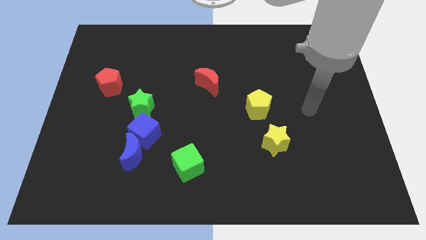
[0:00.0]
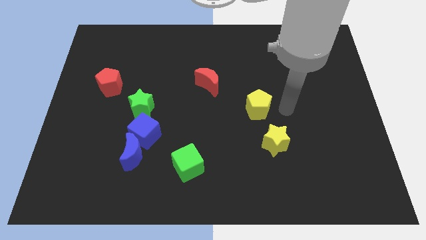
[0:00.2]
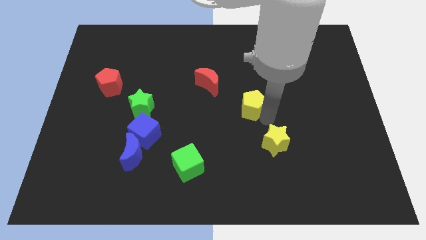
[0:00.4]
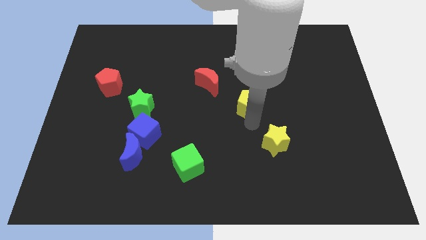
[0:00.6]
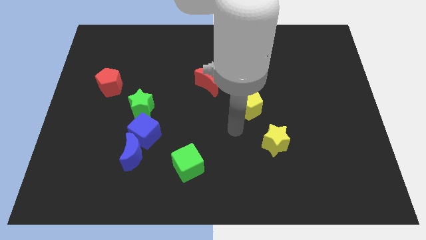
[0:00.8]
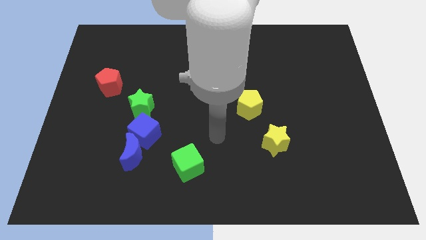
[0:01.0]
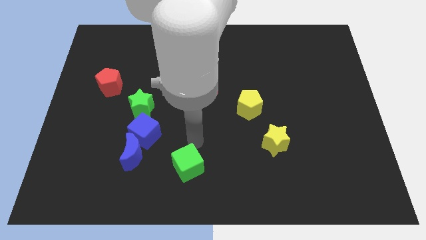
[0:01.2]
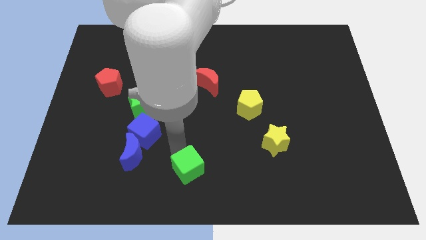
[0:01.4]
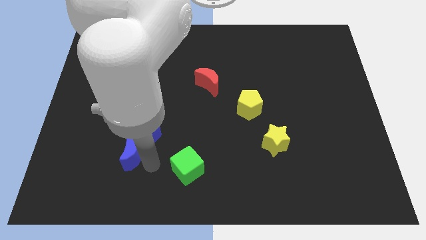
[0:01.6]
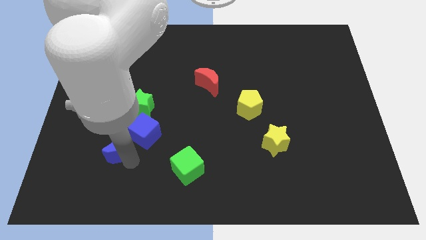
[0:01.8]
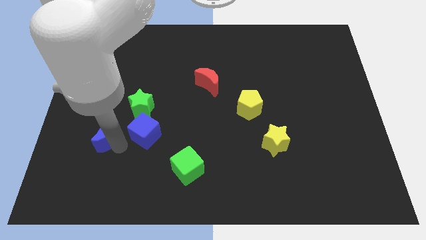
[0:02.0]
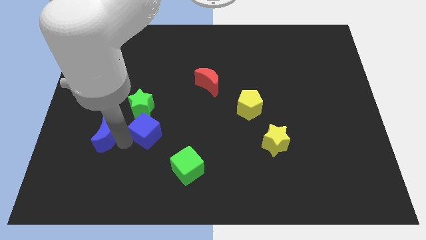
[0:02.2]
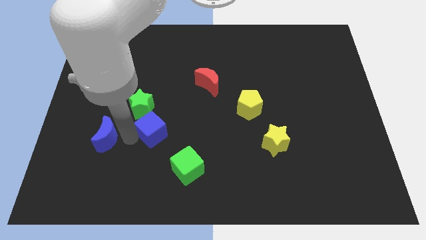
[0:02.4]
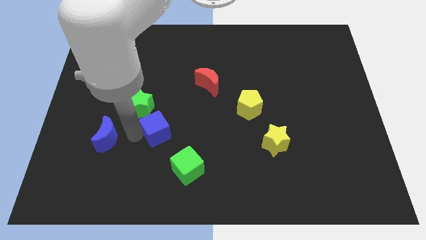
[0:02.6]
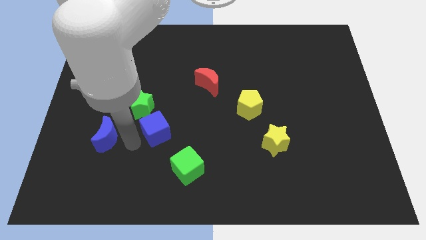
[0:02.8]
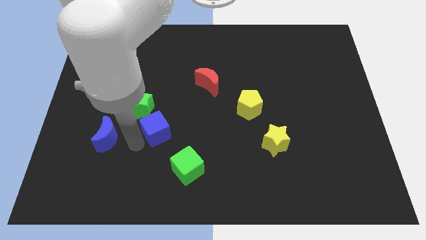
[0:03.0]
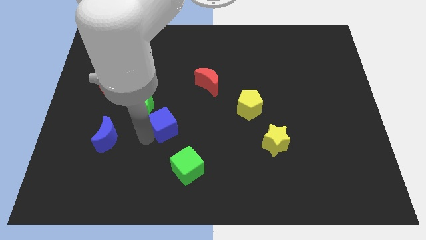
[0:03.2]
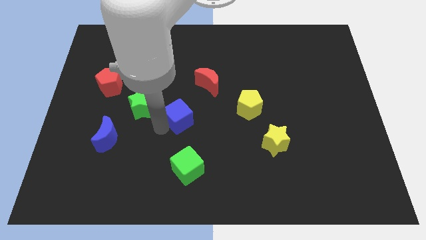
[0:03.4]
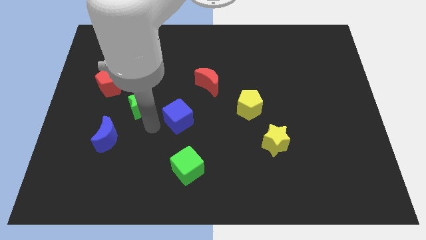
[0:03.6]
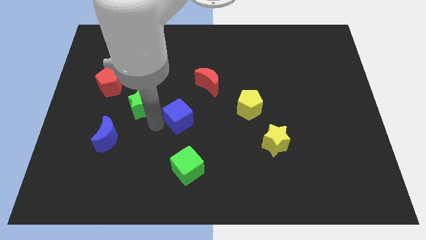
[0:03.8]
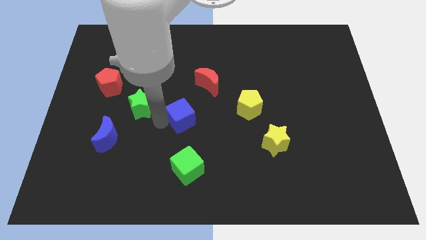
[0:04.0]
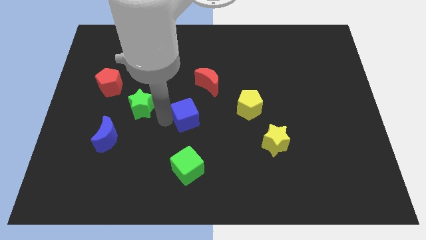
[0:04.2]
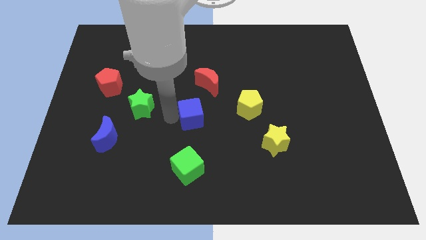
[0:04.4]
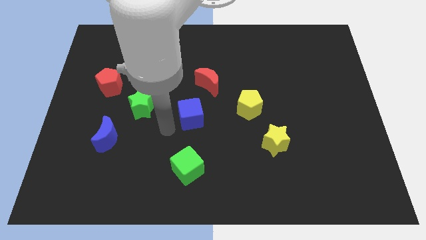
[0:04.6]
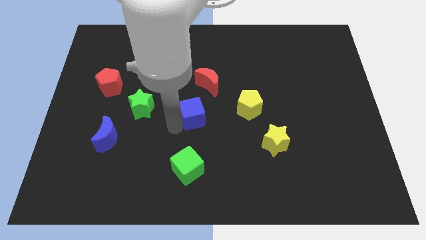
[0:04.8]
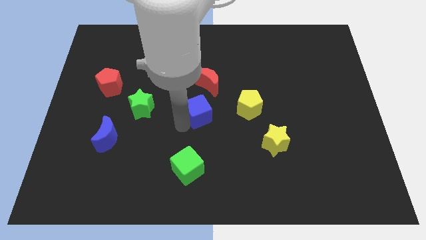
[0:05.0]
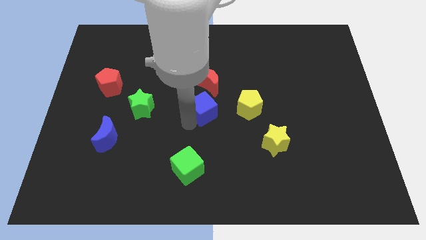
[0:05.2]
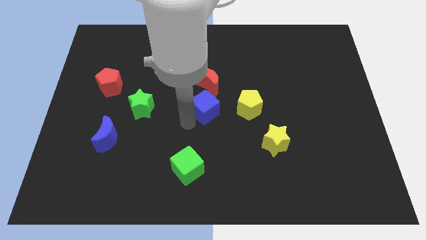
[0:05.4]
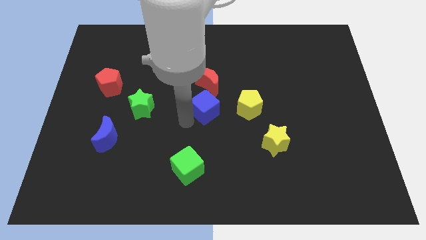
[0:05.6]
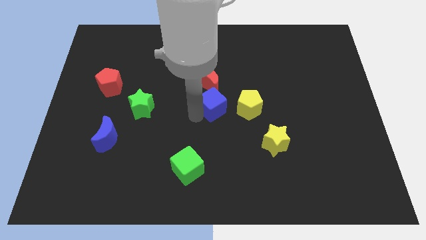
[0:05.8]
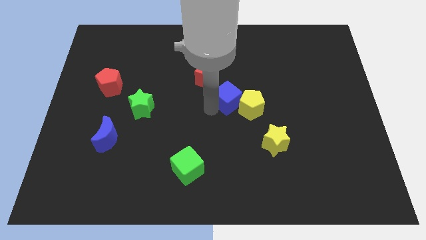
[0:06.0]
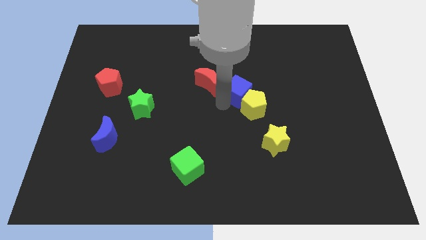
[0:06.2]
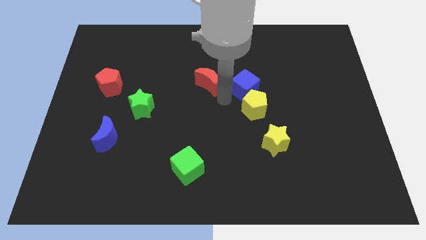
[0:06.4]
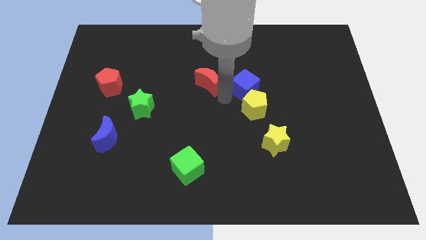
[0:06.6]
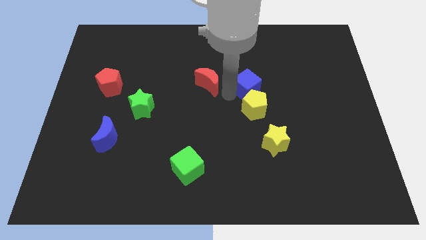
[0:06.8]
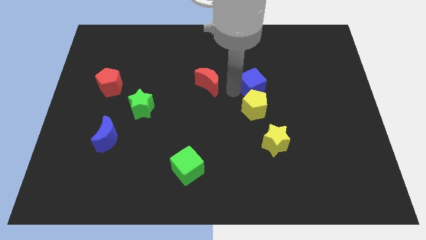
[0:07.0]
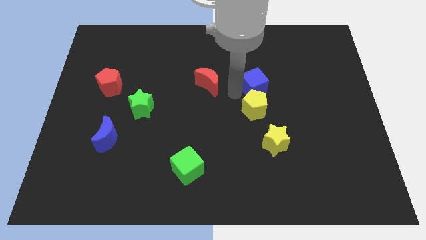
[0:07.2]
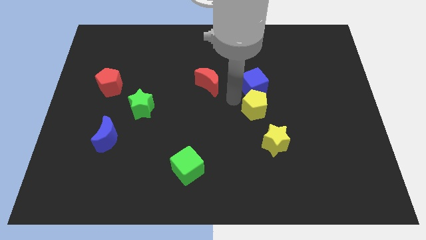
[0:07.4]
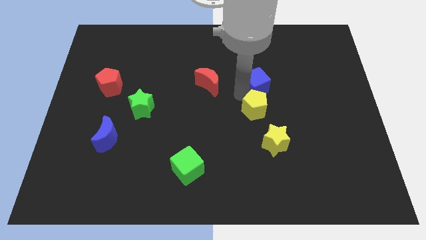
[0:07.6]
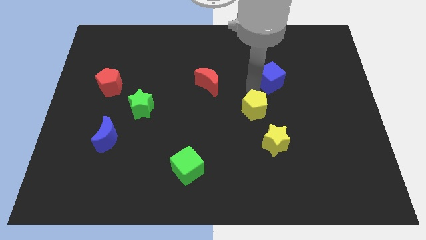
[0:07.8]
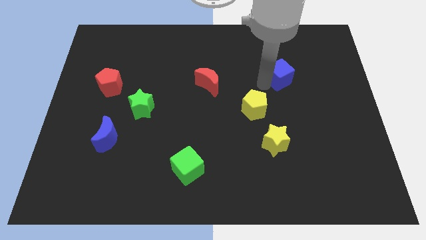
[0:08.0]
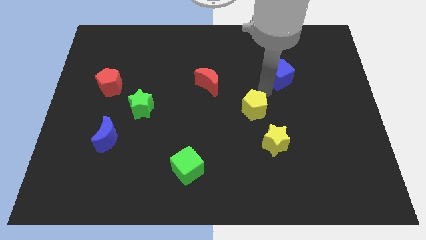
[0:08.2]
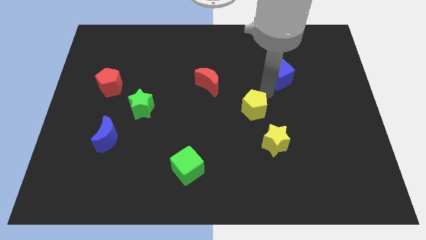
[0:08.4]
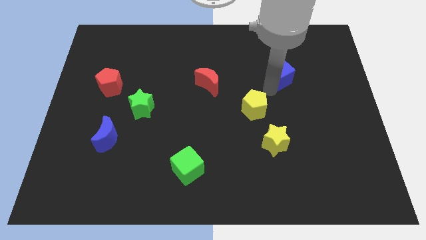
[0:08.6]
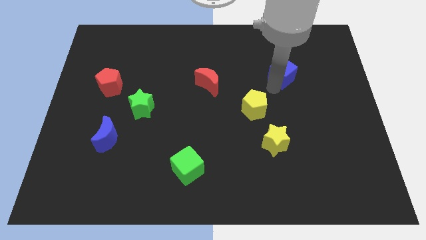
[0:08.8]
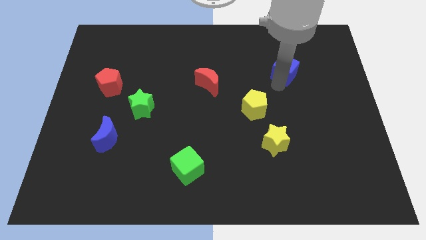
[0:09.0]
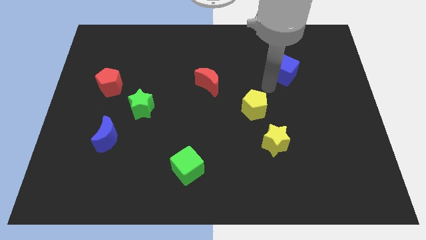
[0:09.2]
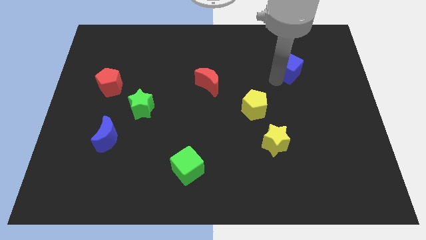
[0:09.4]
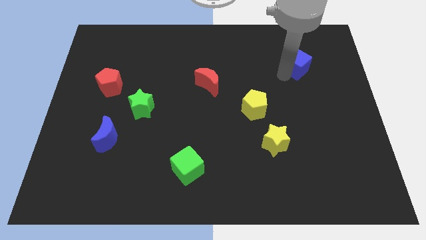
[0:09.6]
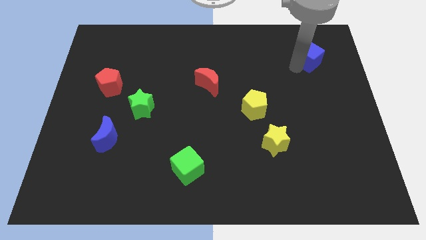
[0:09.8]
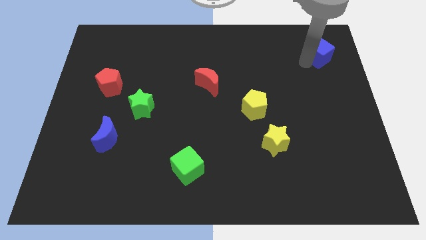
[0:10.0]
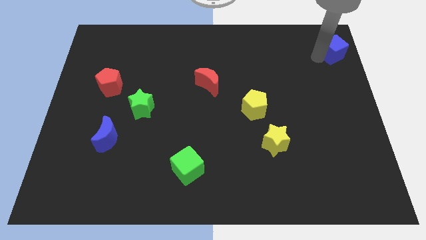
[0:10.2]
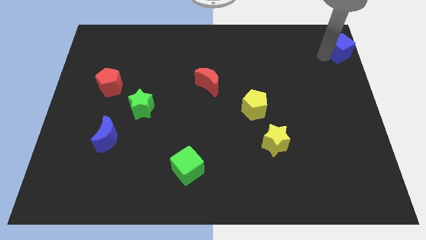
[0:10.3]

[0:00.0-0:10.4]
slide the blue cube to the top right of the board

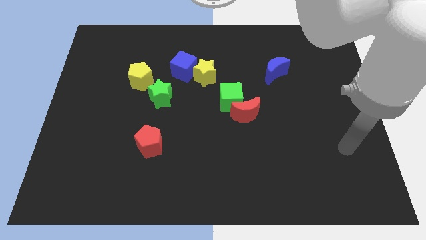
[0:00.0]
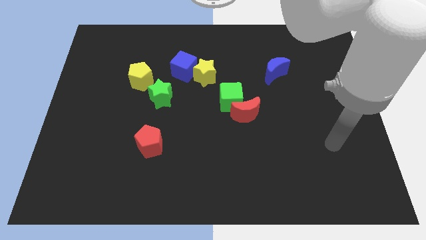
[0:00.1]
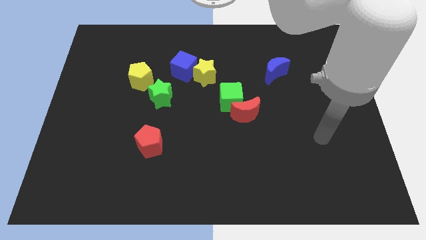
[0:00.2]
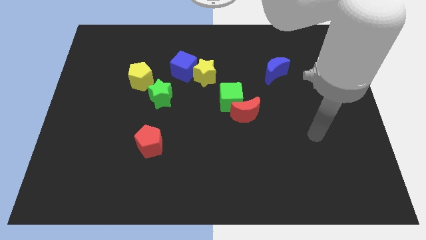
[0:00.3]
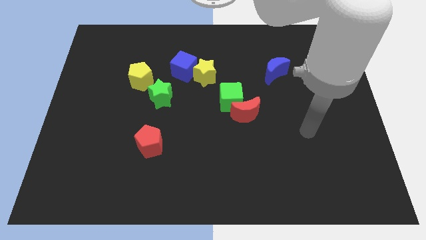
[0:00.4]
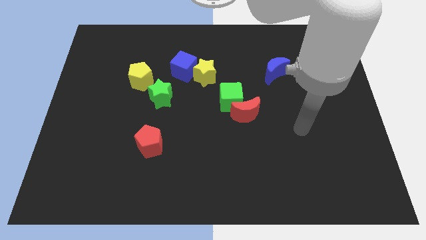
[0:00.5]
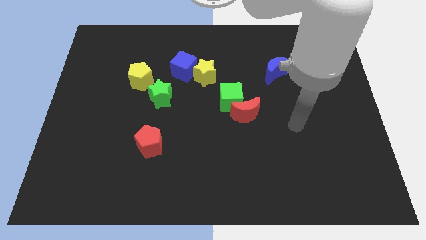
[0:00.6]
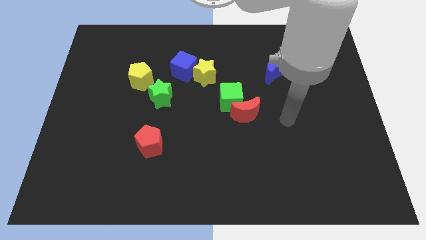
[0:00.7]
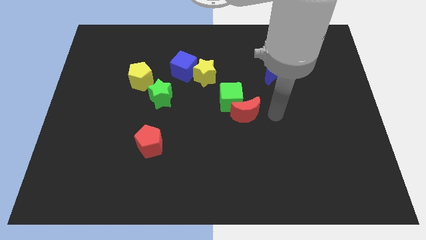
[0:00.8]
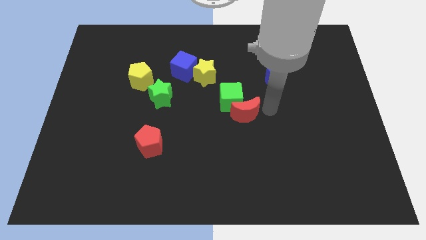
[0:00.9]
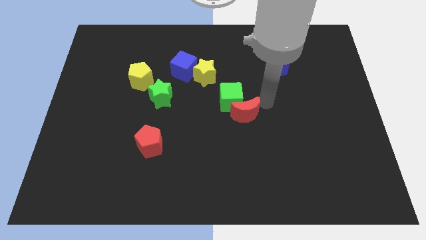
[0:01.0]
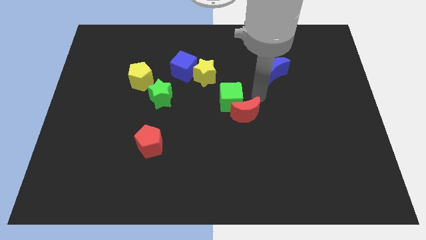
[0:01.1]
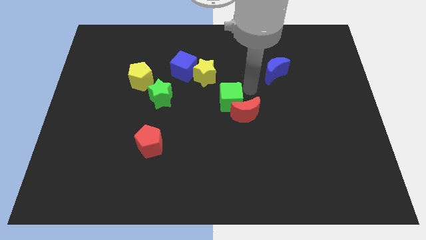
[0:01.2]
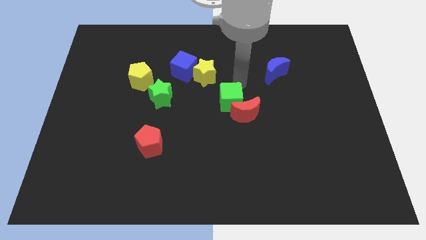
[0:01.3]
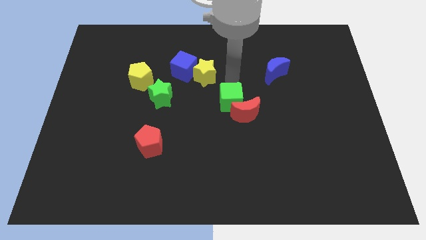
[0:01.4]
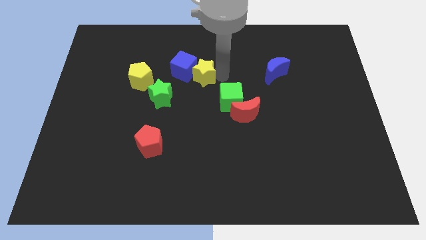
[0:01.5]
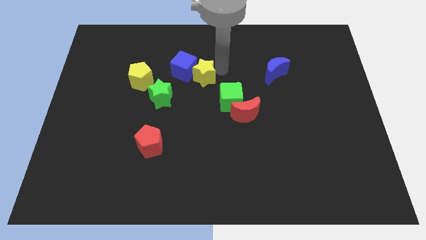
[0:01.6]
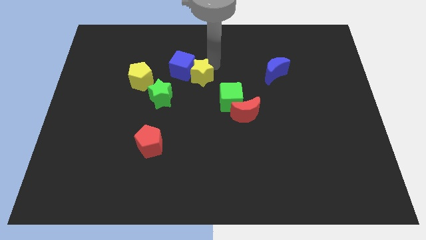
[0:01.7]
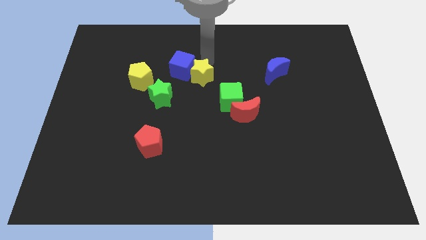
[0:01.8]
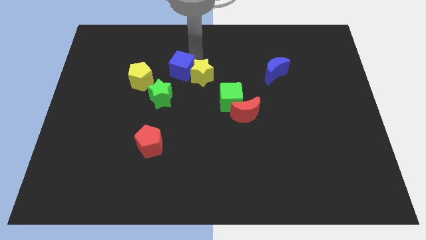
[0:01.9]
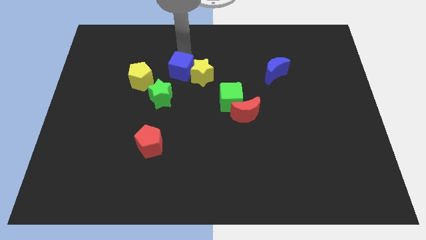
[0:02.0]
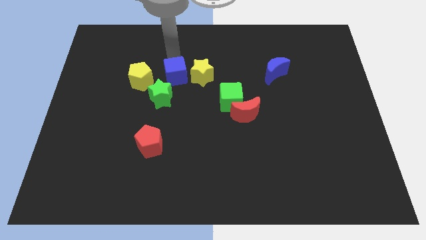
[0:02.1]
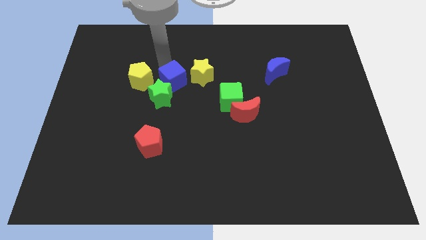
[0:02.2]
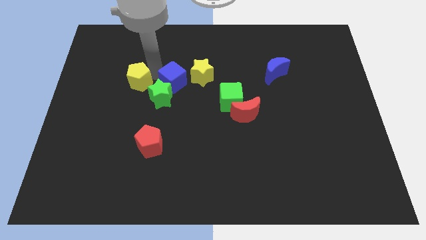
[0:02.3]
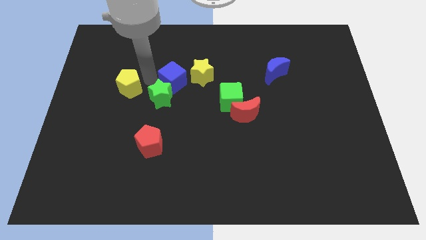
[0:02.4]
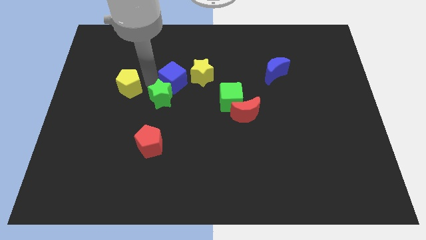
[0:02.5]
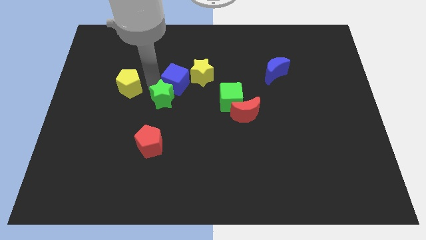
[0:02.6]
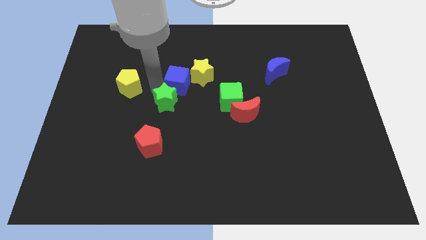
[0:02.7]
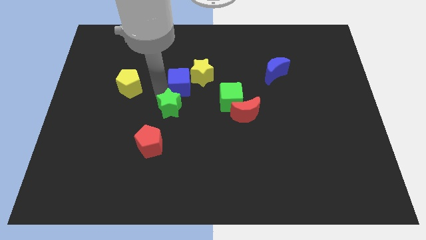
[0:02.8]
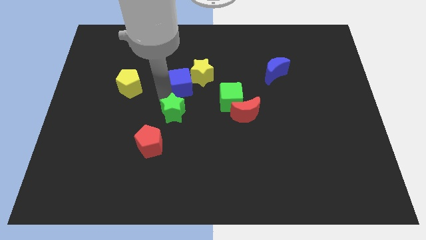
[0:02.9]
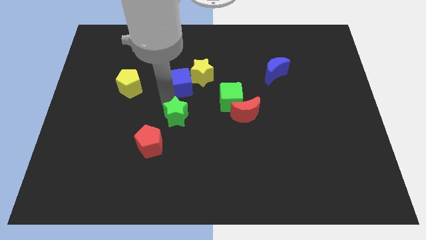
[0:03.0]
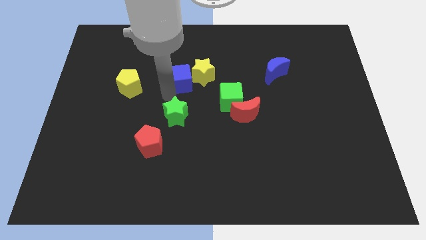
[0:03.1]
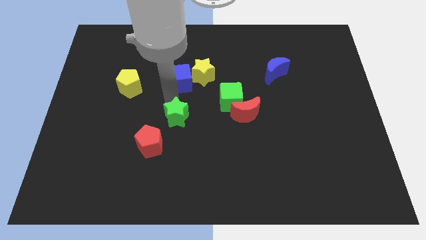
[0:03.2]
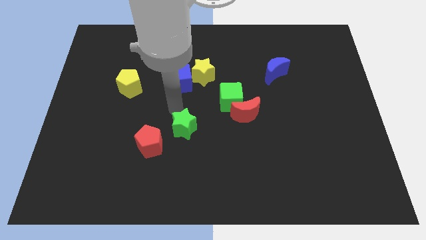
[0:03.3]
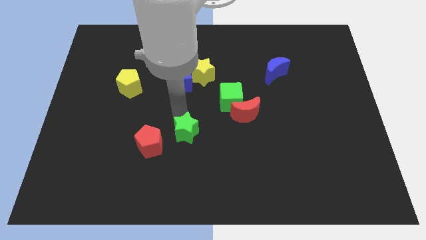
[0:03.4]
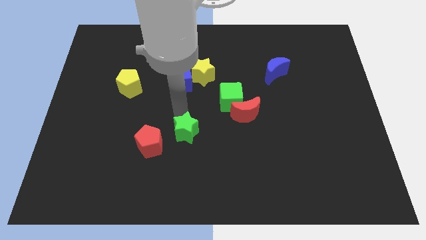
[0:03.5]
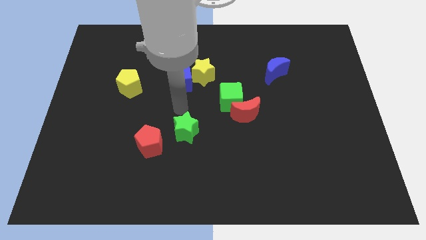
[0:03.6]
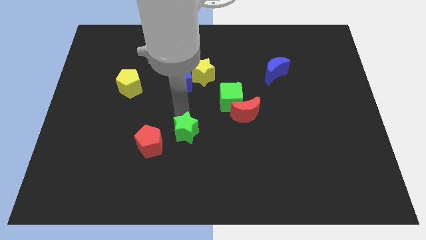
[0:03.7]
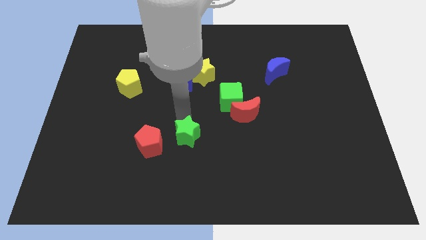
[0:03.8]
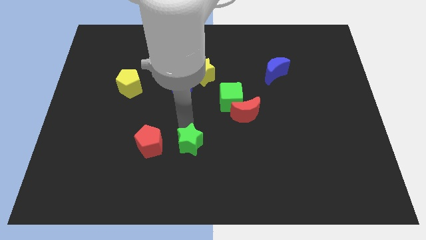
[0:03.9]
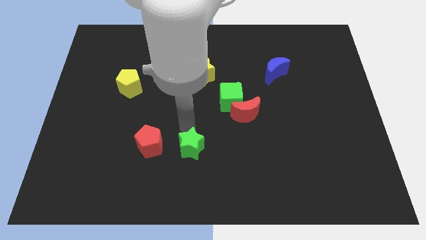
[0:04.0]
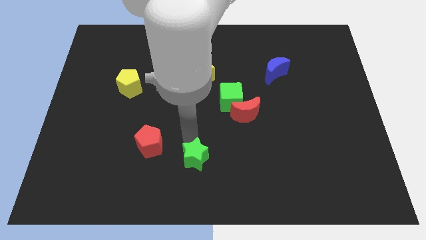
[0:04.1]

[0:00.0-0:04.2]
move the green star to the bottom
